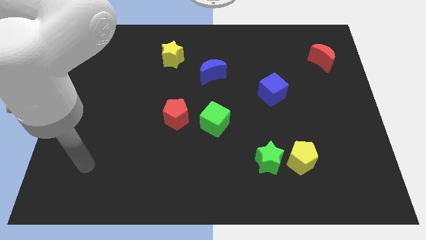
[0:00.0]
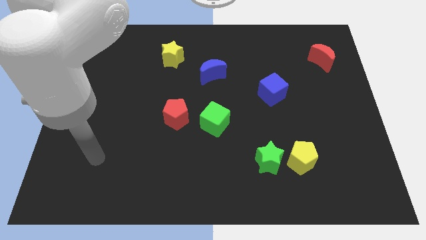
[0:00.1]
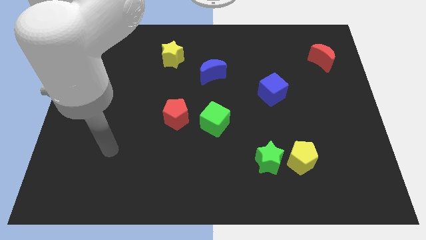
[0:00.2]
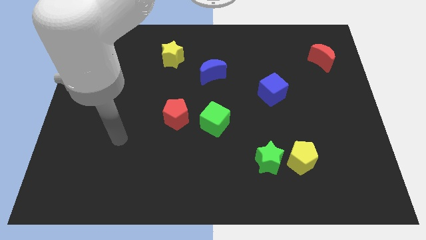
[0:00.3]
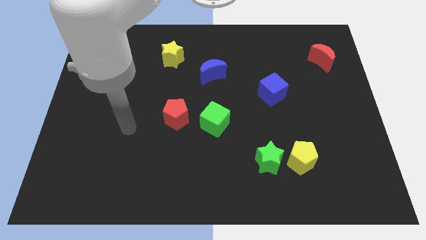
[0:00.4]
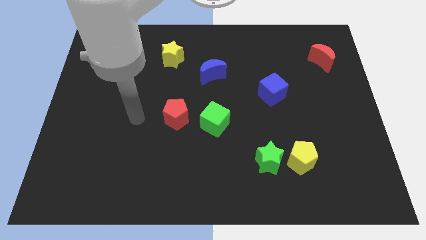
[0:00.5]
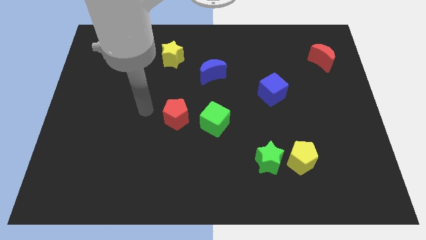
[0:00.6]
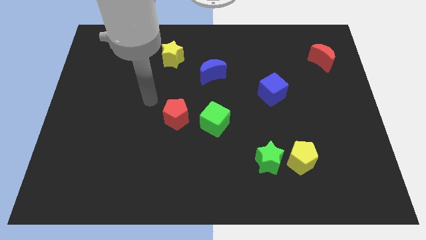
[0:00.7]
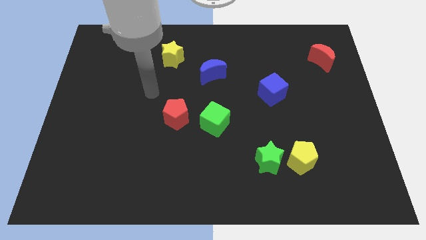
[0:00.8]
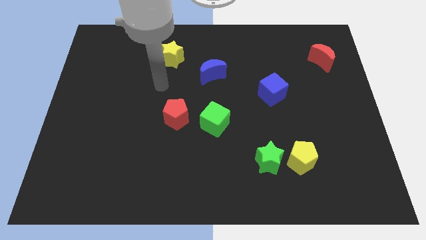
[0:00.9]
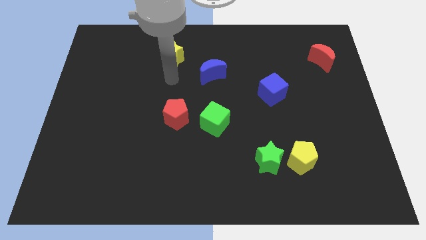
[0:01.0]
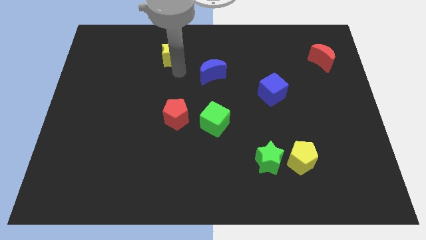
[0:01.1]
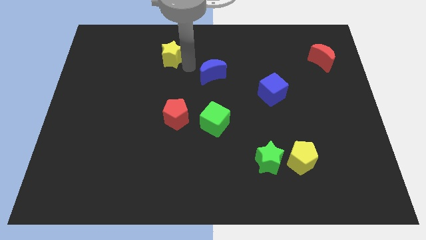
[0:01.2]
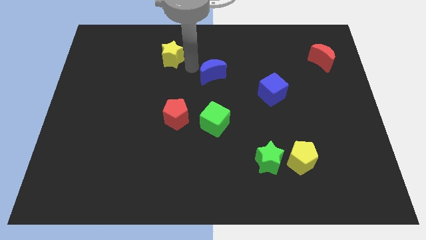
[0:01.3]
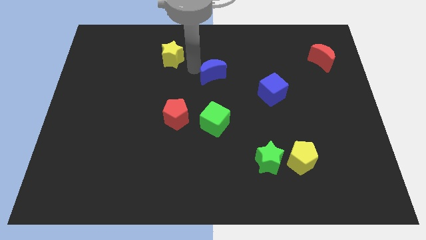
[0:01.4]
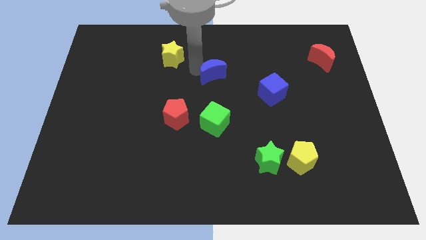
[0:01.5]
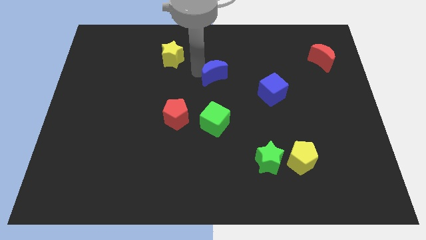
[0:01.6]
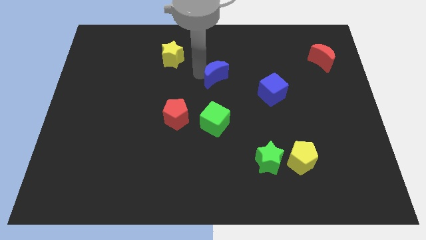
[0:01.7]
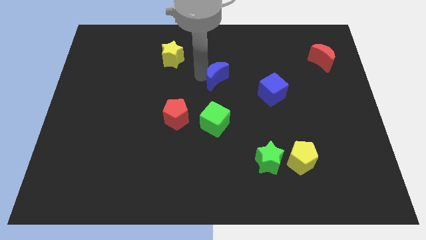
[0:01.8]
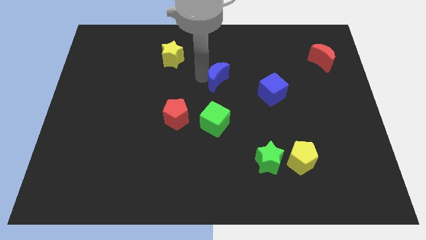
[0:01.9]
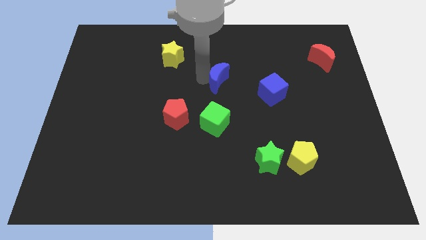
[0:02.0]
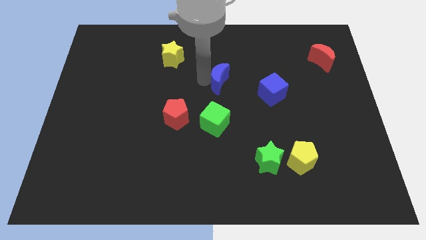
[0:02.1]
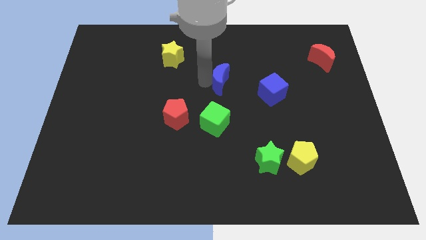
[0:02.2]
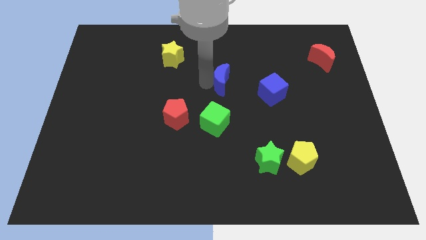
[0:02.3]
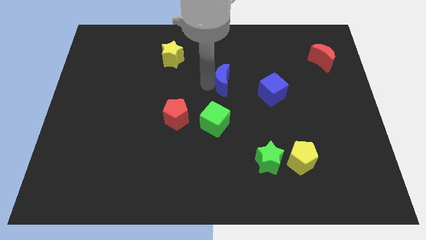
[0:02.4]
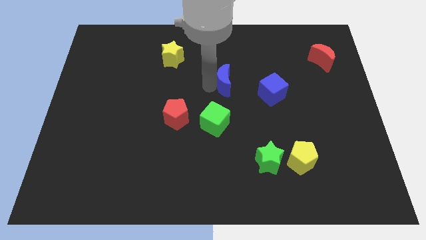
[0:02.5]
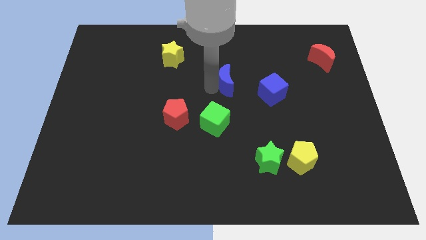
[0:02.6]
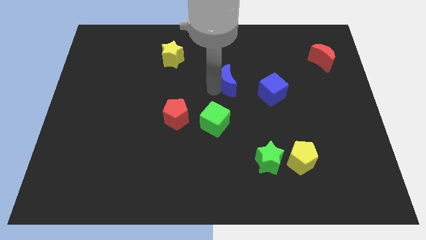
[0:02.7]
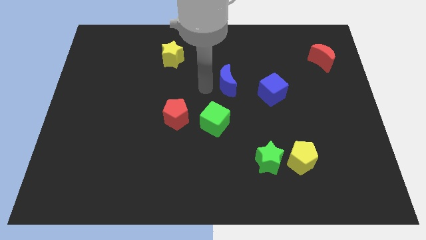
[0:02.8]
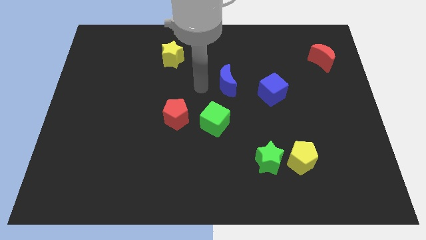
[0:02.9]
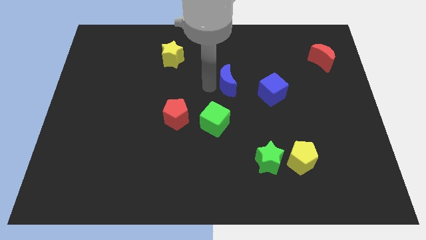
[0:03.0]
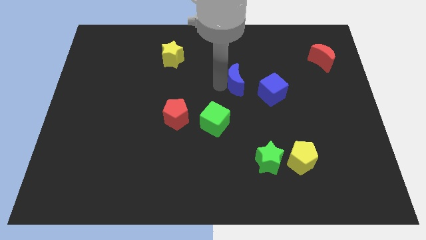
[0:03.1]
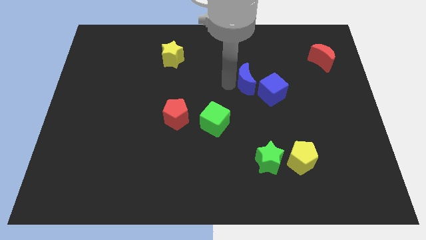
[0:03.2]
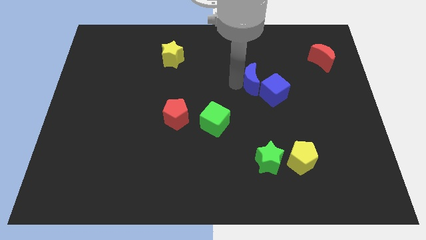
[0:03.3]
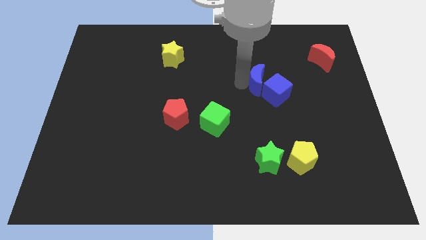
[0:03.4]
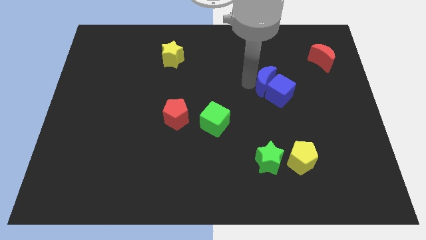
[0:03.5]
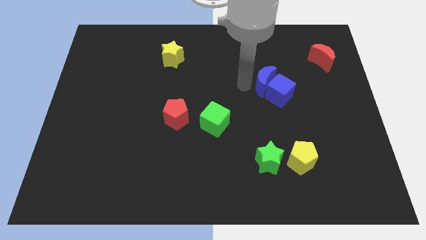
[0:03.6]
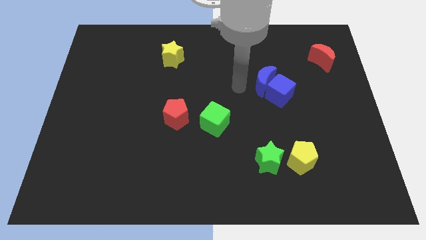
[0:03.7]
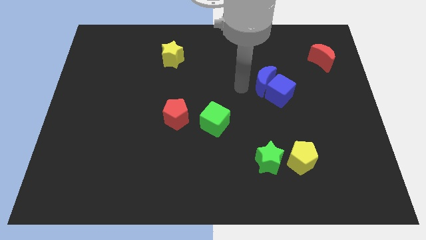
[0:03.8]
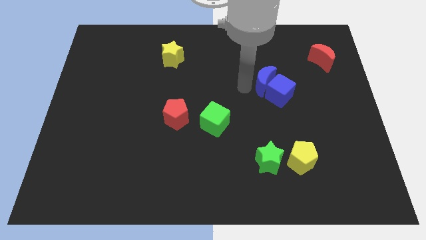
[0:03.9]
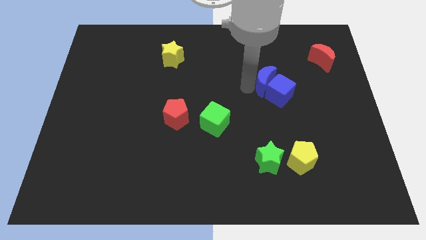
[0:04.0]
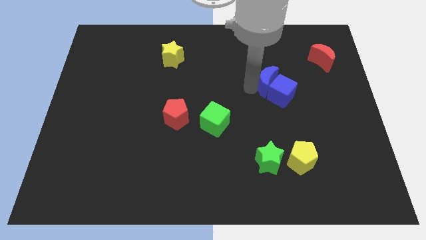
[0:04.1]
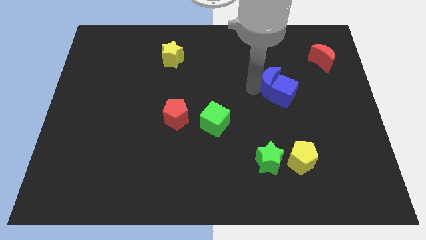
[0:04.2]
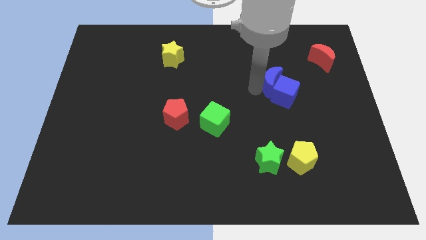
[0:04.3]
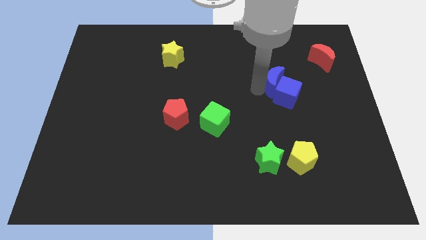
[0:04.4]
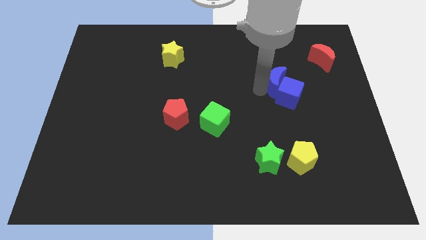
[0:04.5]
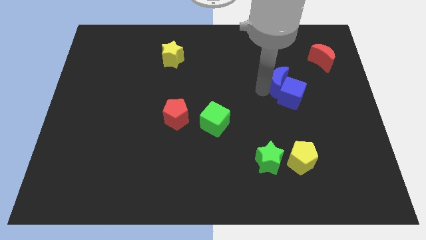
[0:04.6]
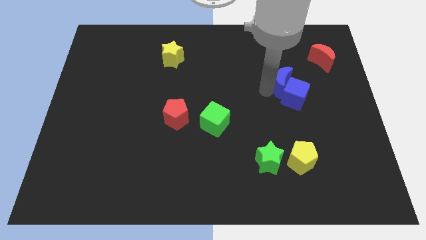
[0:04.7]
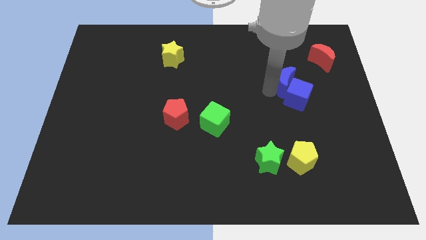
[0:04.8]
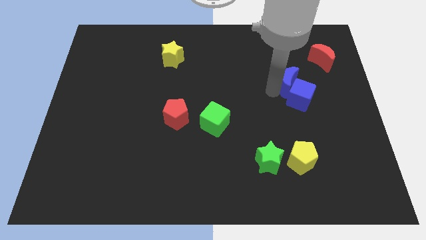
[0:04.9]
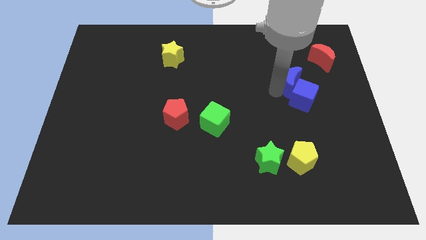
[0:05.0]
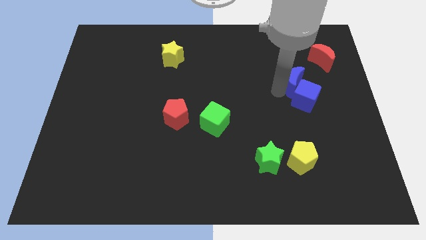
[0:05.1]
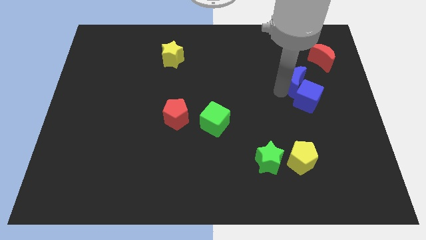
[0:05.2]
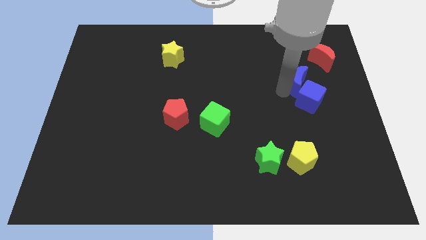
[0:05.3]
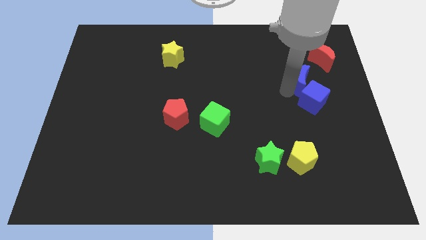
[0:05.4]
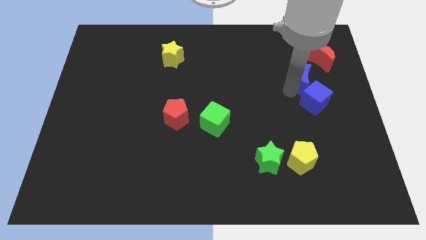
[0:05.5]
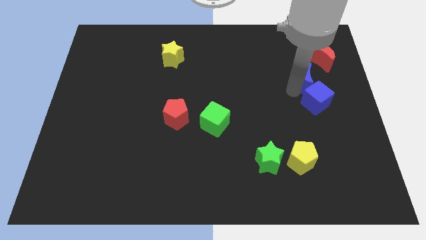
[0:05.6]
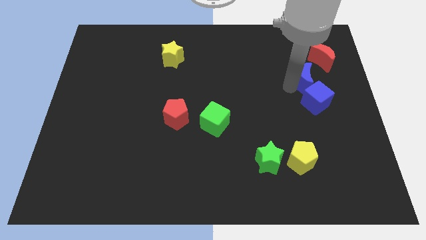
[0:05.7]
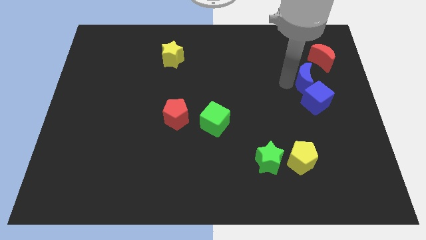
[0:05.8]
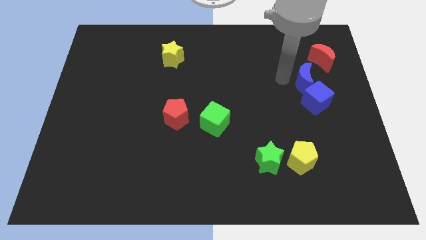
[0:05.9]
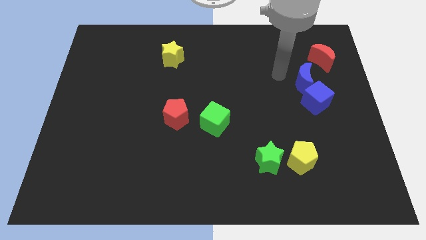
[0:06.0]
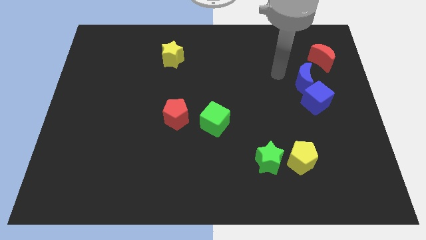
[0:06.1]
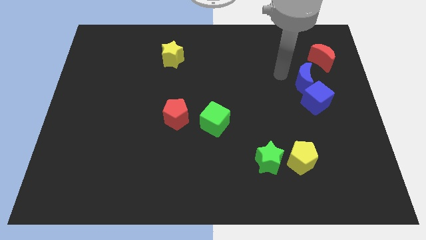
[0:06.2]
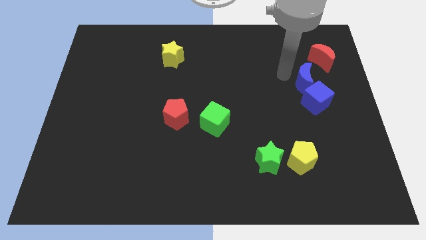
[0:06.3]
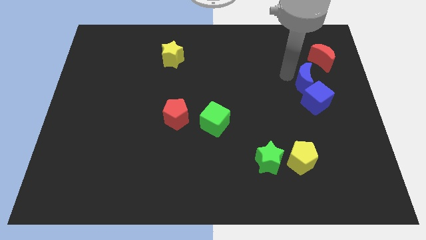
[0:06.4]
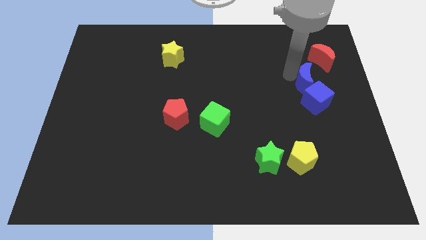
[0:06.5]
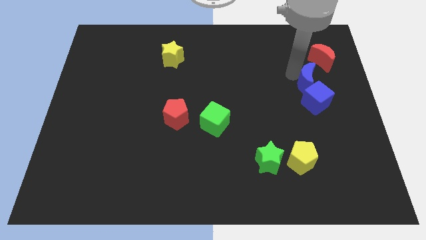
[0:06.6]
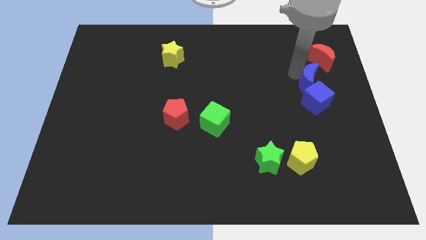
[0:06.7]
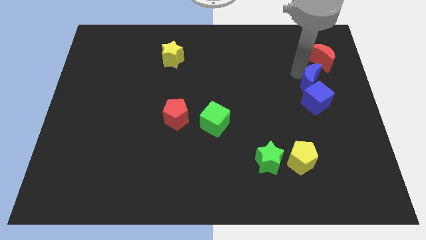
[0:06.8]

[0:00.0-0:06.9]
push the blue moon to the bottom side of the red moon
